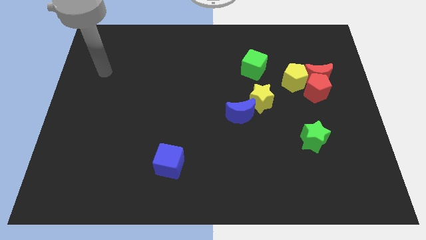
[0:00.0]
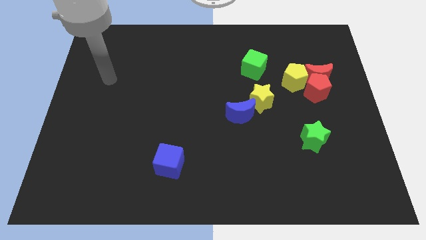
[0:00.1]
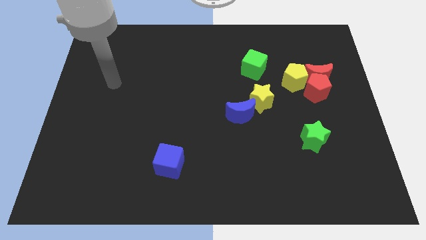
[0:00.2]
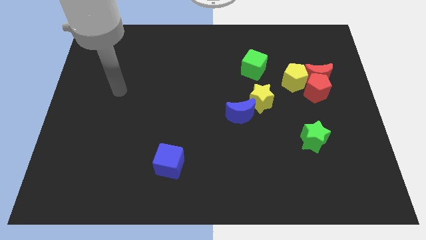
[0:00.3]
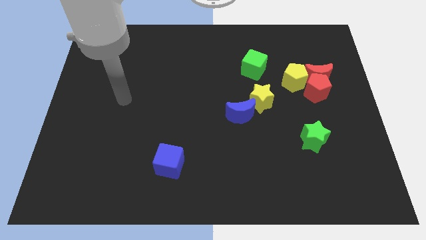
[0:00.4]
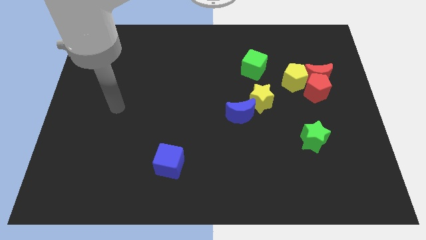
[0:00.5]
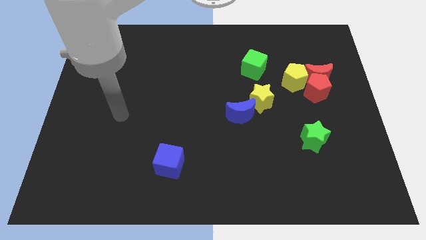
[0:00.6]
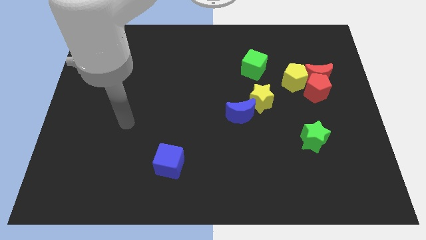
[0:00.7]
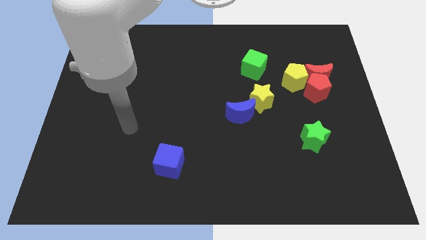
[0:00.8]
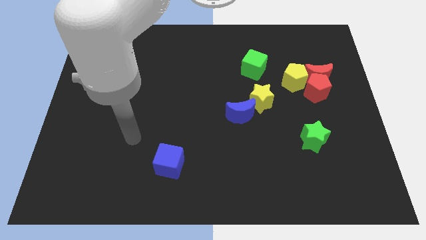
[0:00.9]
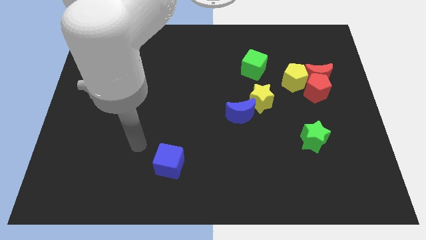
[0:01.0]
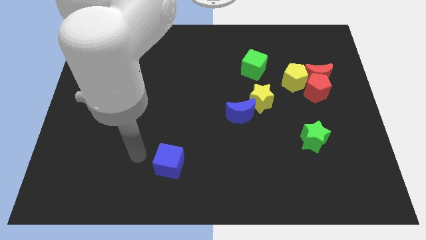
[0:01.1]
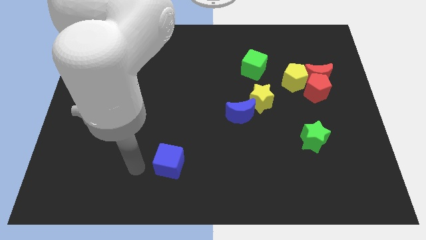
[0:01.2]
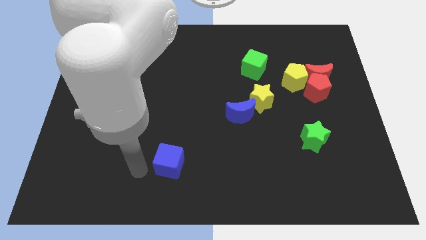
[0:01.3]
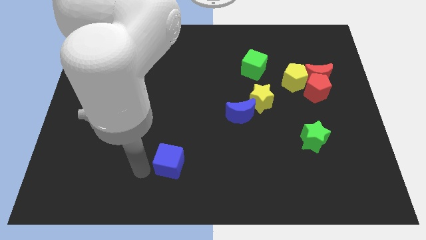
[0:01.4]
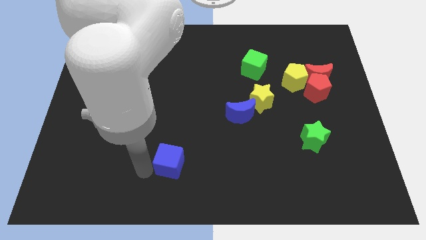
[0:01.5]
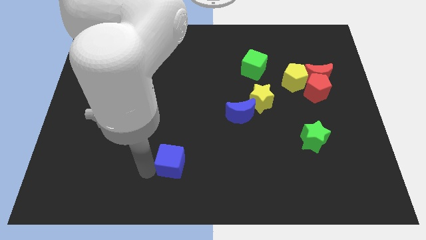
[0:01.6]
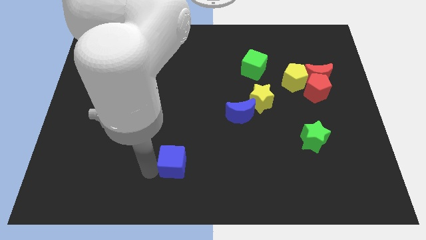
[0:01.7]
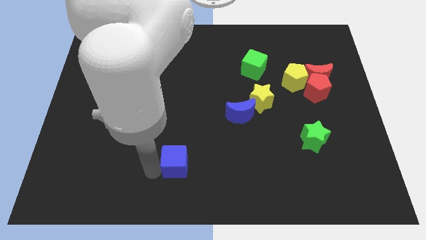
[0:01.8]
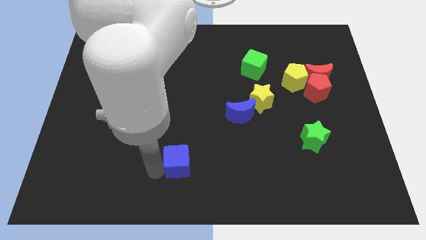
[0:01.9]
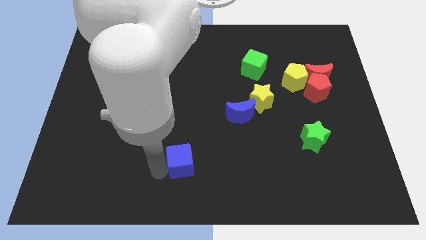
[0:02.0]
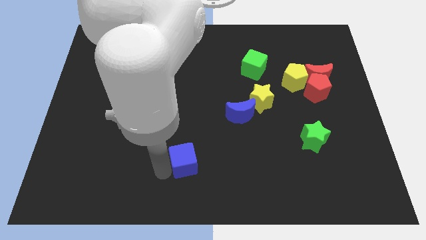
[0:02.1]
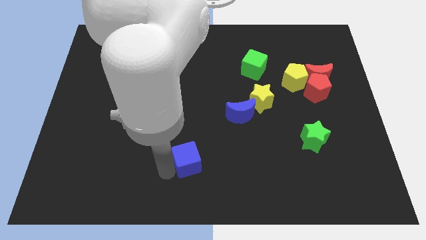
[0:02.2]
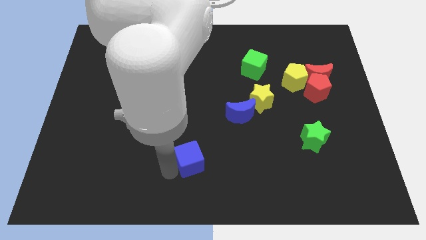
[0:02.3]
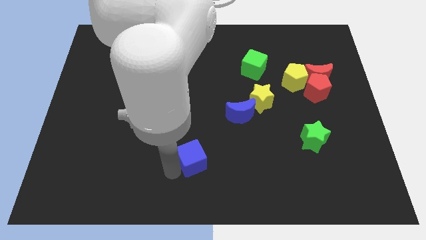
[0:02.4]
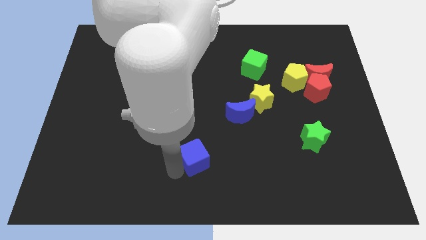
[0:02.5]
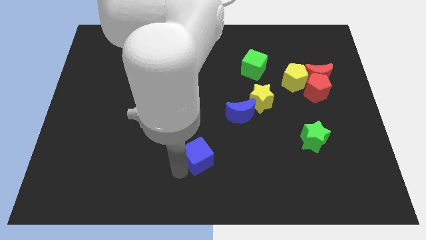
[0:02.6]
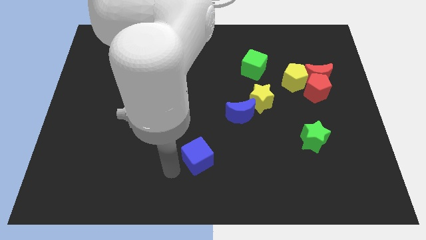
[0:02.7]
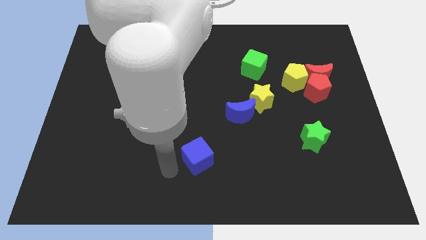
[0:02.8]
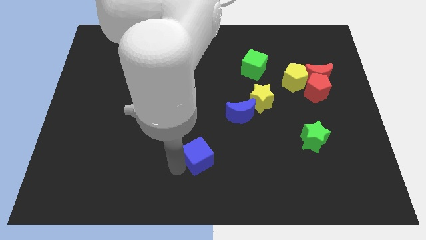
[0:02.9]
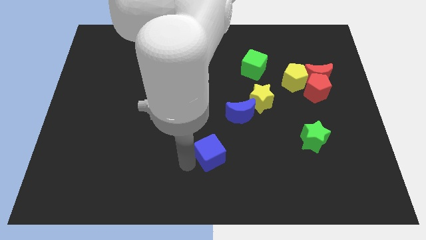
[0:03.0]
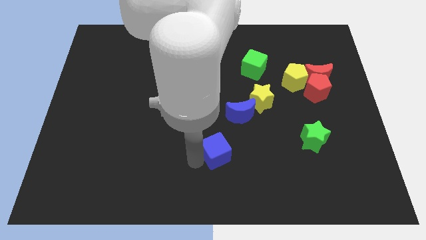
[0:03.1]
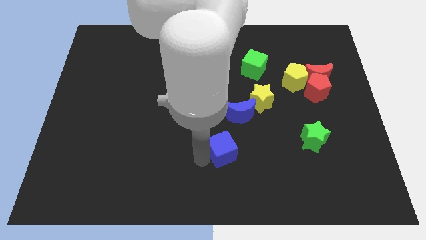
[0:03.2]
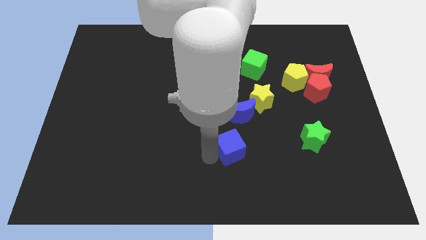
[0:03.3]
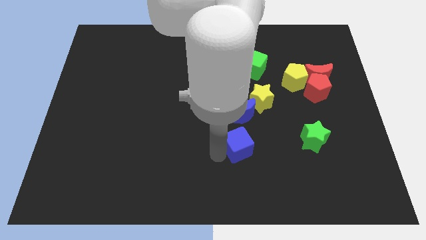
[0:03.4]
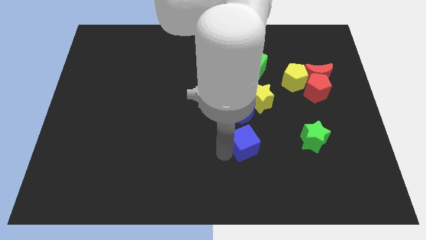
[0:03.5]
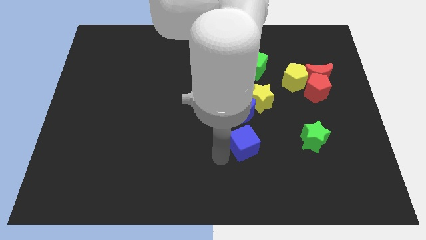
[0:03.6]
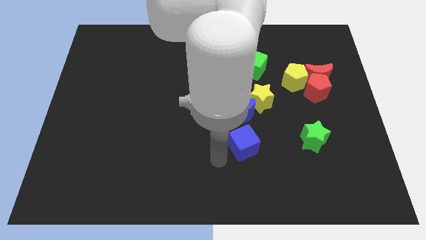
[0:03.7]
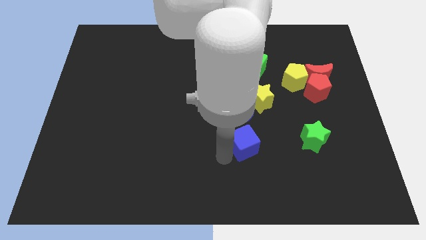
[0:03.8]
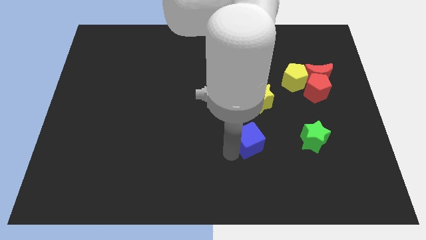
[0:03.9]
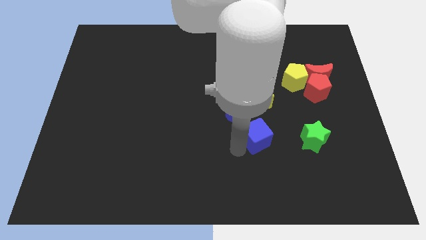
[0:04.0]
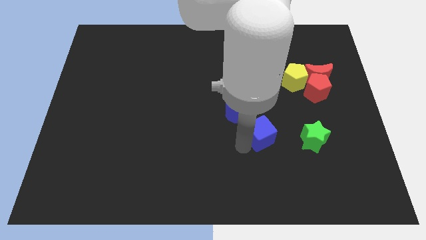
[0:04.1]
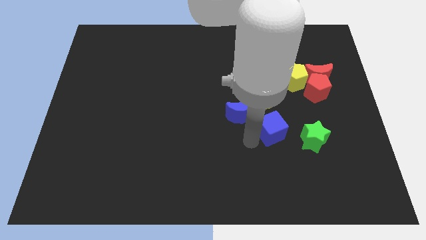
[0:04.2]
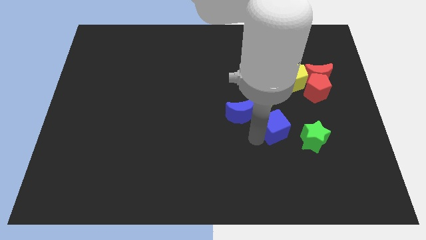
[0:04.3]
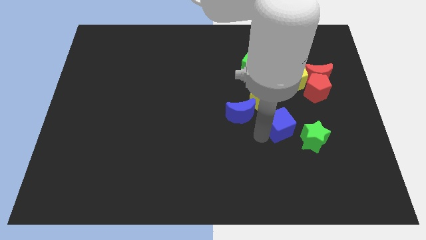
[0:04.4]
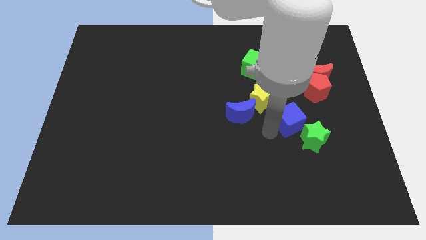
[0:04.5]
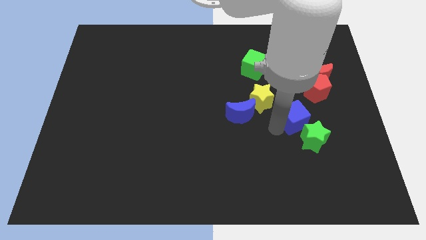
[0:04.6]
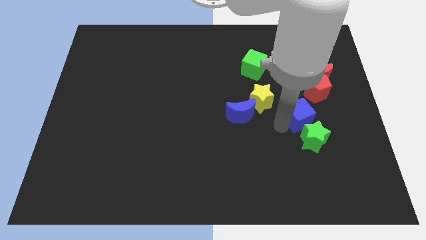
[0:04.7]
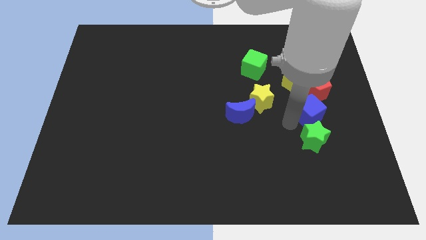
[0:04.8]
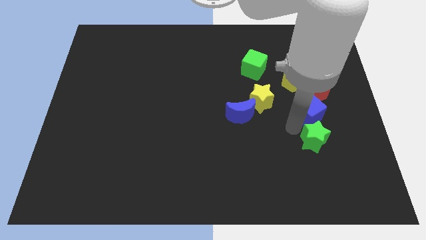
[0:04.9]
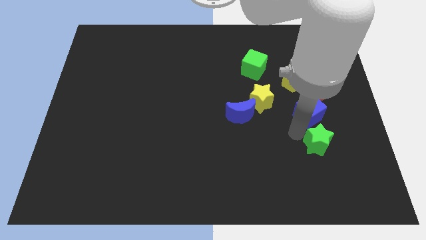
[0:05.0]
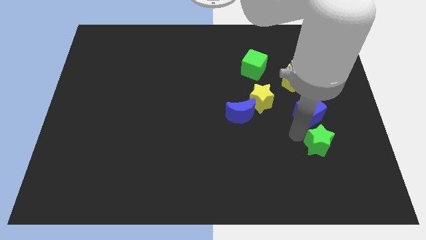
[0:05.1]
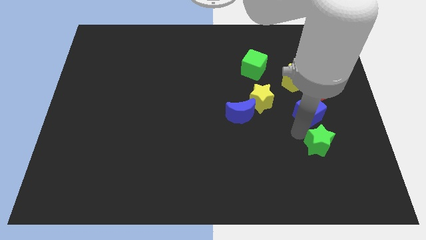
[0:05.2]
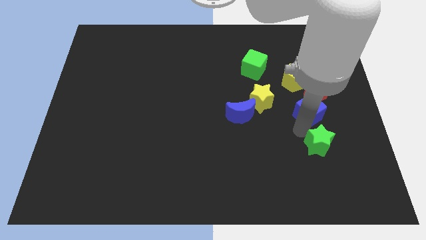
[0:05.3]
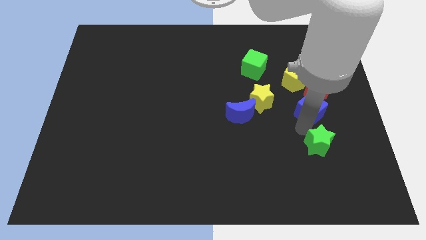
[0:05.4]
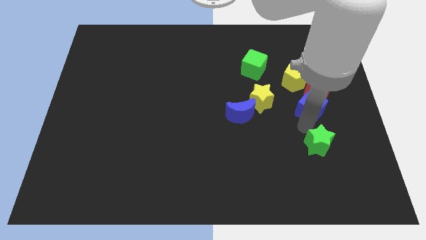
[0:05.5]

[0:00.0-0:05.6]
move the blue cube to the bottom right of the yellow pentagon
